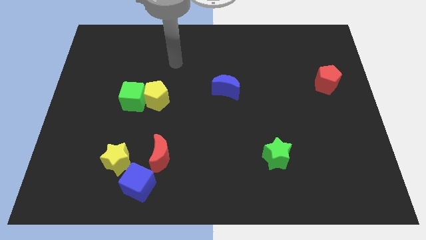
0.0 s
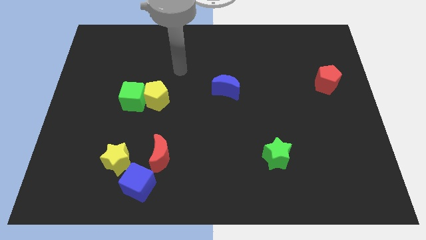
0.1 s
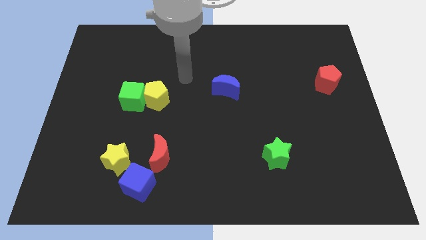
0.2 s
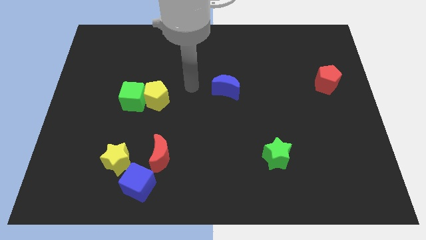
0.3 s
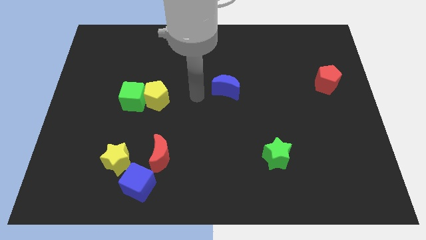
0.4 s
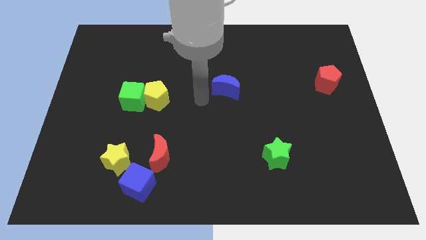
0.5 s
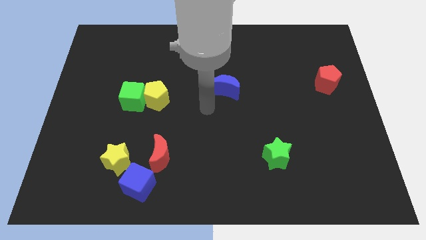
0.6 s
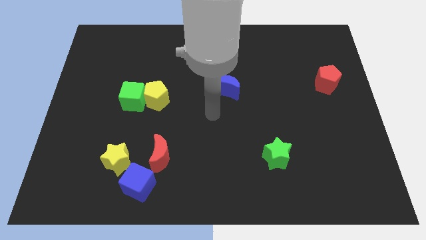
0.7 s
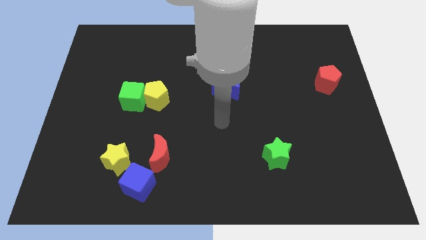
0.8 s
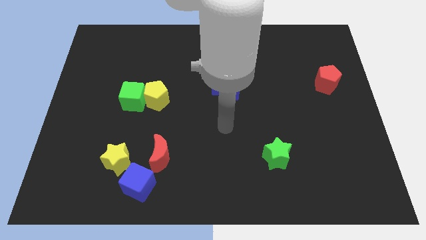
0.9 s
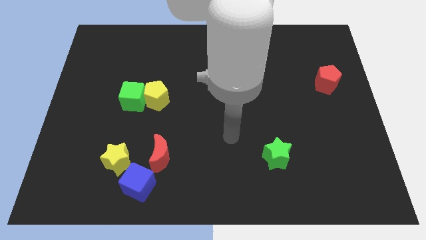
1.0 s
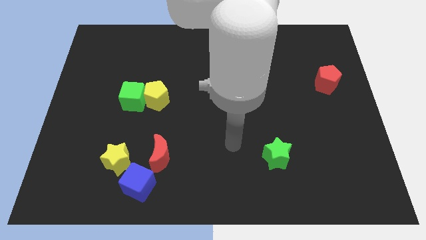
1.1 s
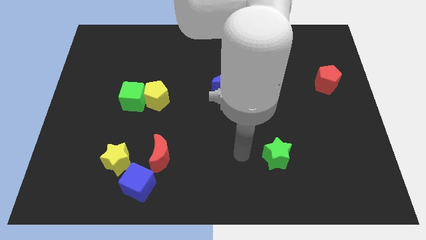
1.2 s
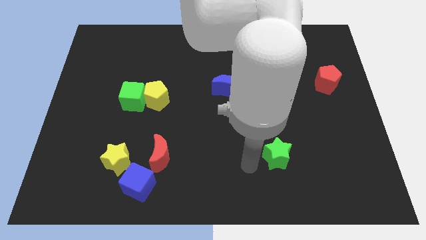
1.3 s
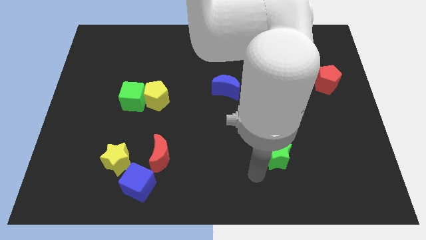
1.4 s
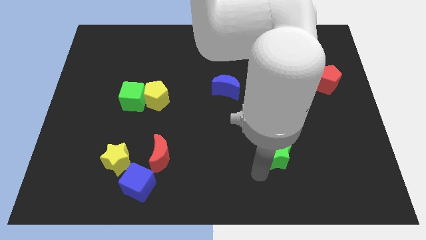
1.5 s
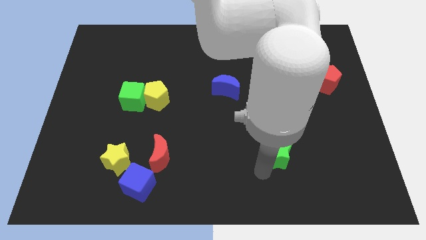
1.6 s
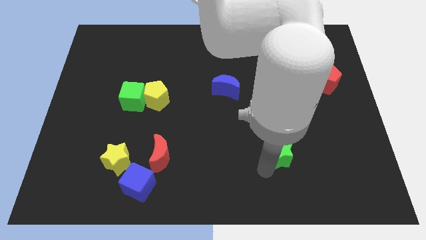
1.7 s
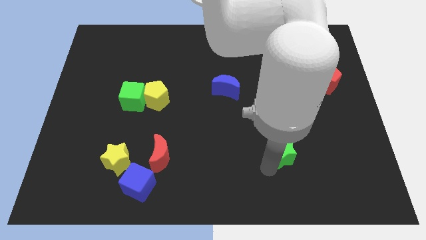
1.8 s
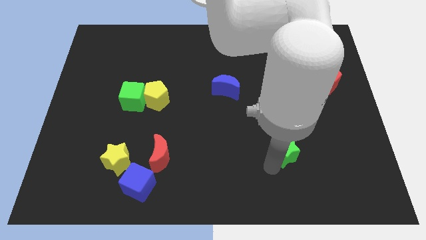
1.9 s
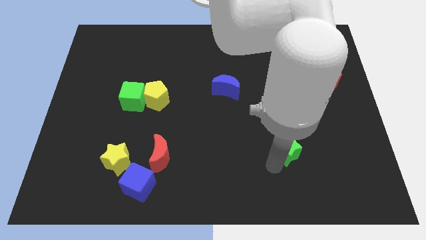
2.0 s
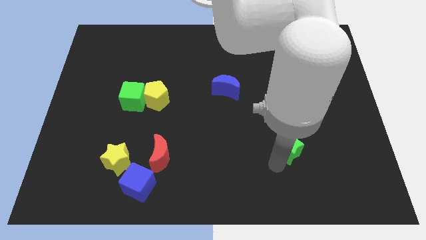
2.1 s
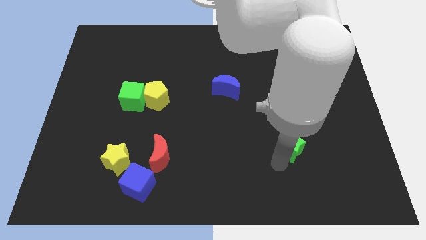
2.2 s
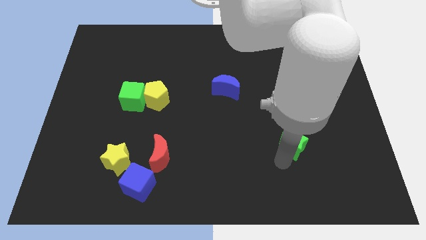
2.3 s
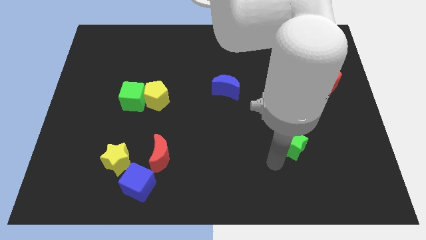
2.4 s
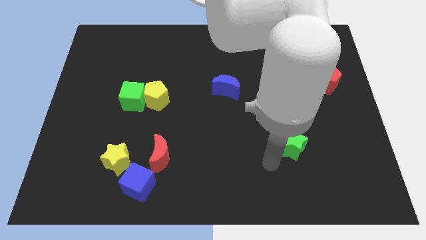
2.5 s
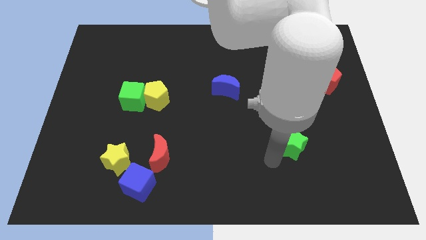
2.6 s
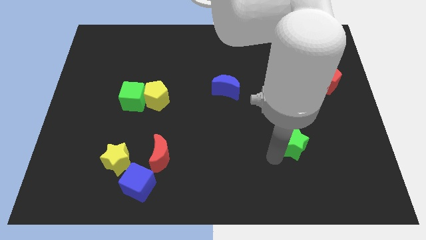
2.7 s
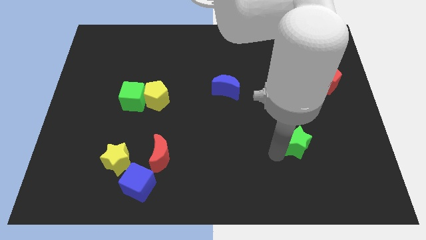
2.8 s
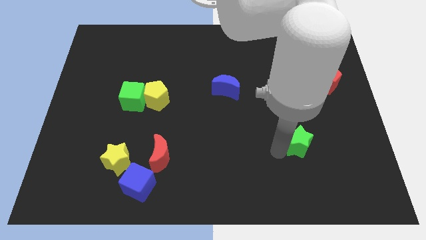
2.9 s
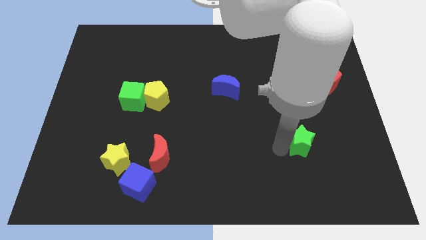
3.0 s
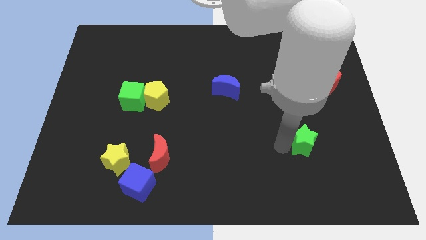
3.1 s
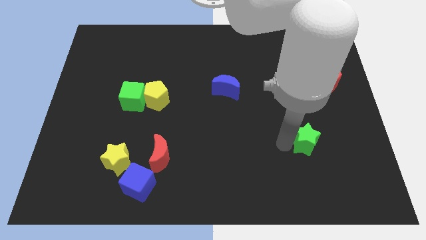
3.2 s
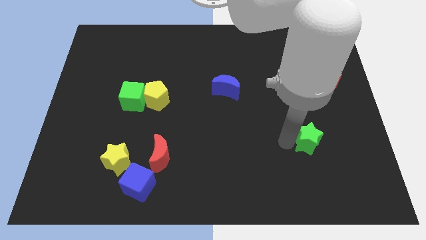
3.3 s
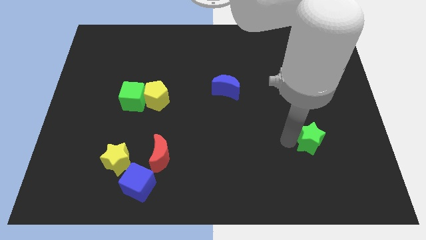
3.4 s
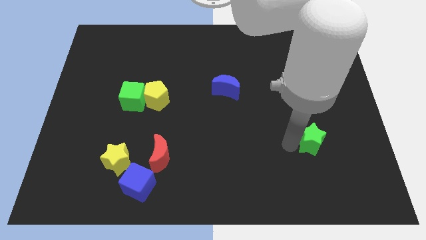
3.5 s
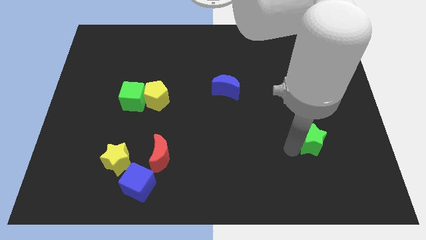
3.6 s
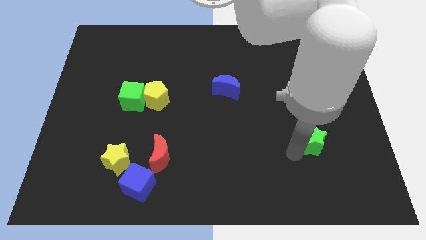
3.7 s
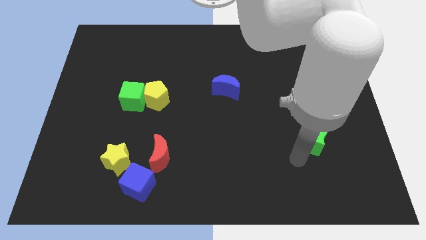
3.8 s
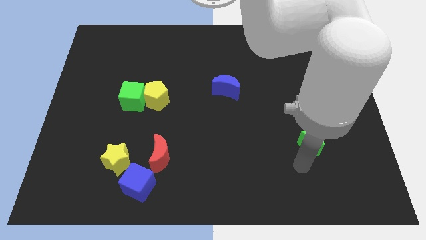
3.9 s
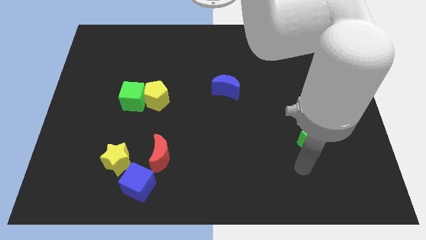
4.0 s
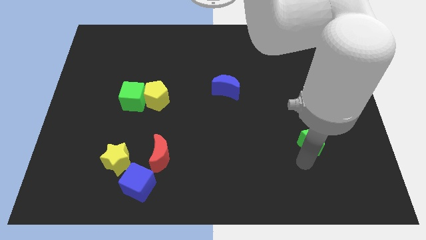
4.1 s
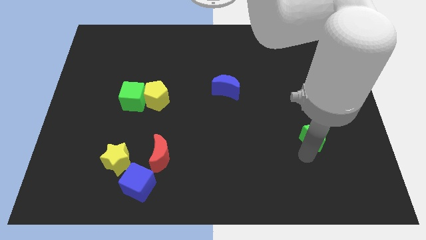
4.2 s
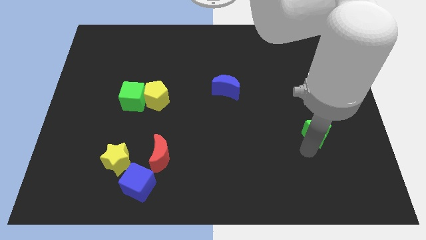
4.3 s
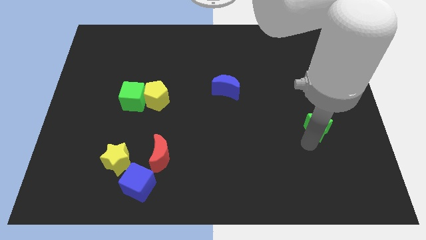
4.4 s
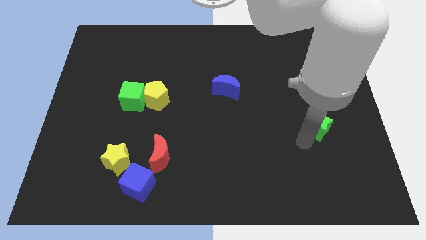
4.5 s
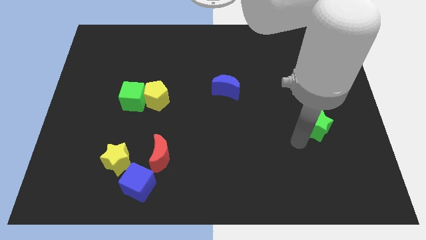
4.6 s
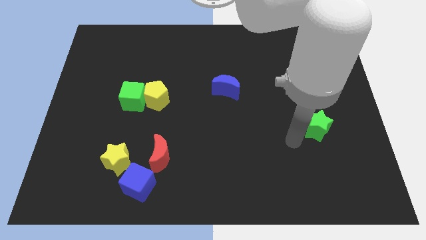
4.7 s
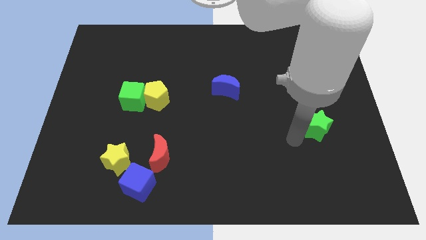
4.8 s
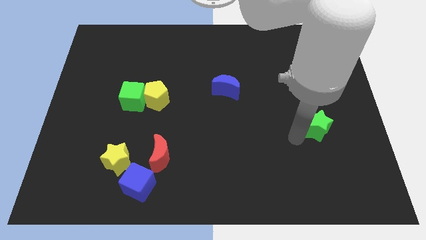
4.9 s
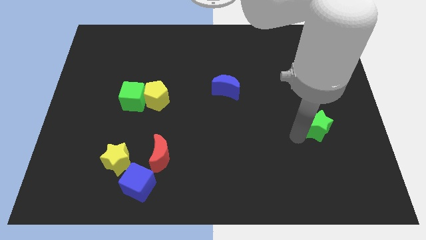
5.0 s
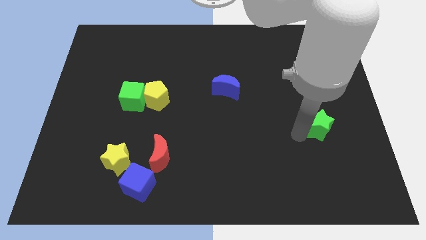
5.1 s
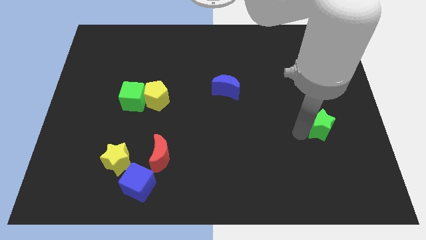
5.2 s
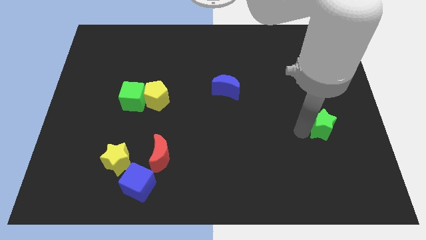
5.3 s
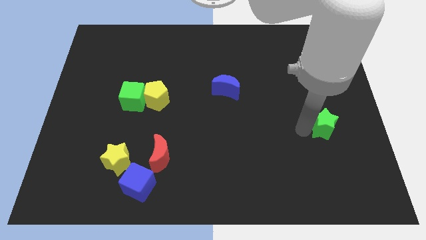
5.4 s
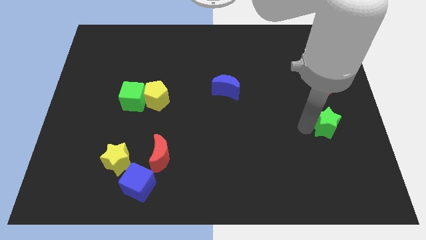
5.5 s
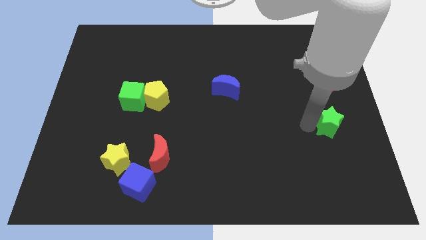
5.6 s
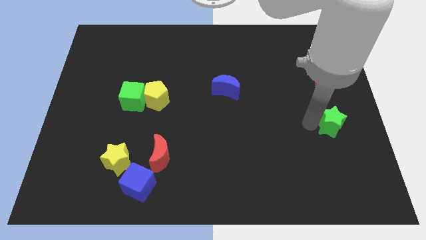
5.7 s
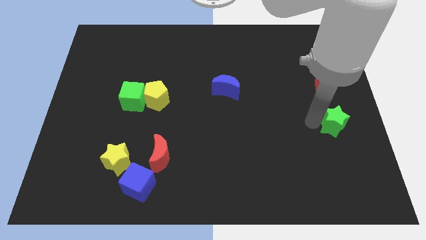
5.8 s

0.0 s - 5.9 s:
slide the green star to the center right

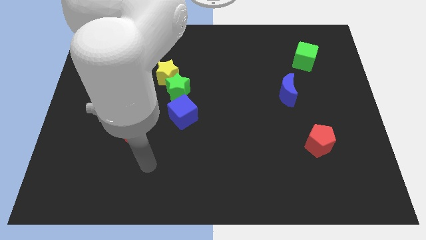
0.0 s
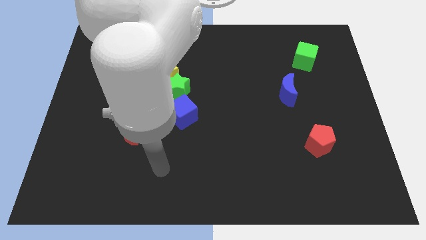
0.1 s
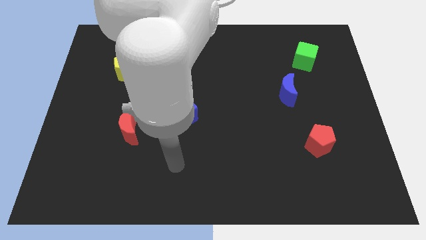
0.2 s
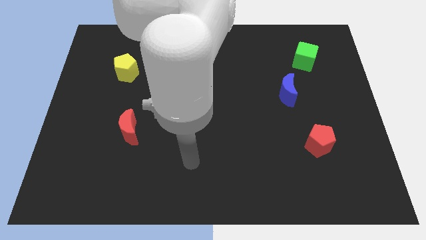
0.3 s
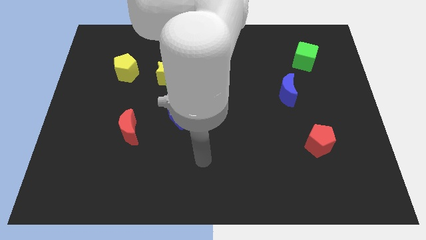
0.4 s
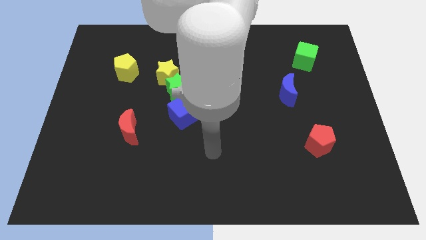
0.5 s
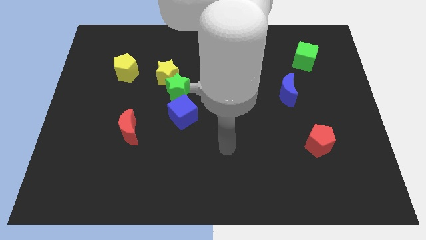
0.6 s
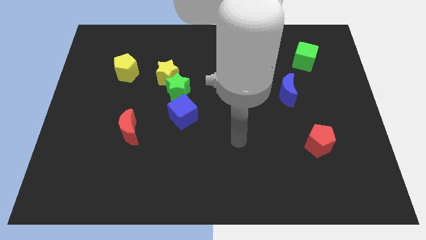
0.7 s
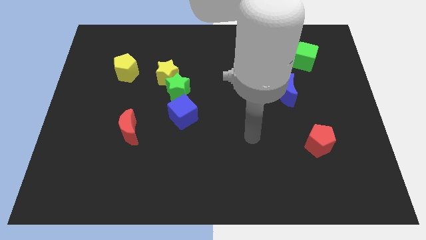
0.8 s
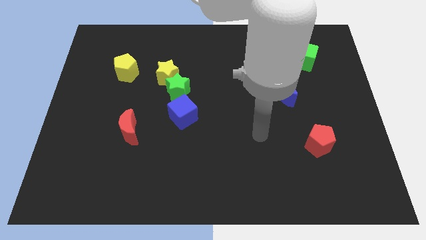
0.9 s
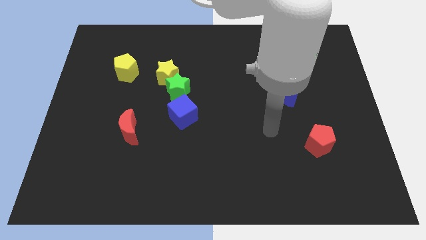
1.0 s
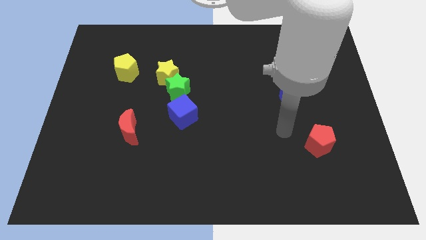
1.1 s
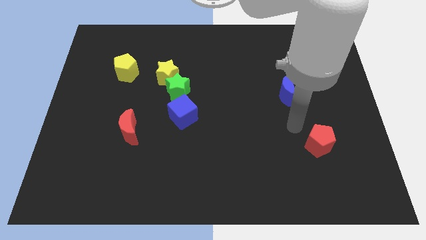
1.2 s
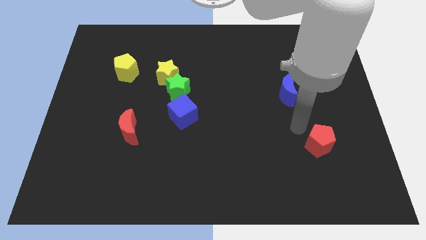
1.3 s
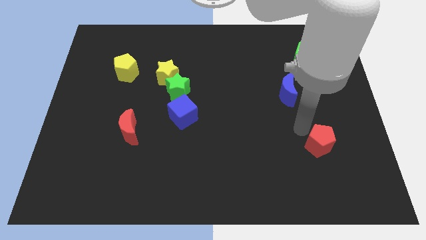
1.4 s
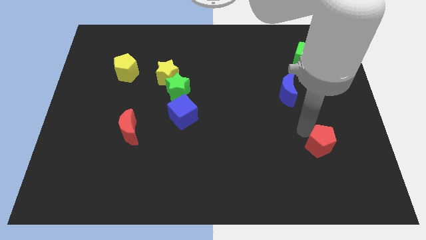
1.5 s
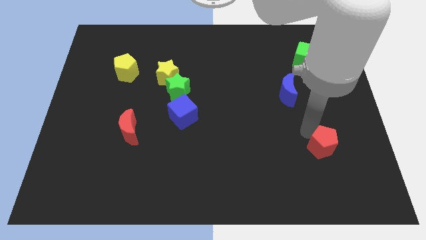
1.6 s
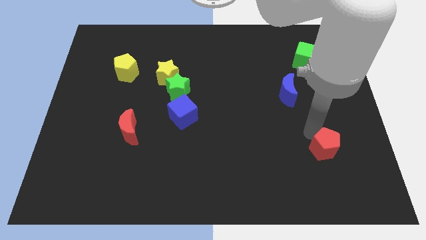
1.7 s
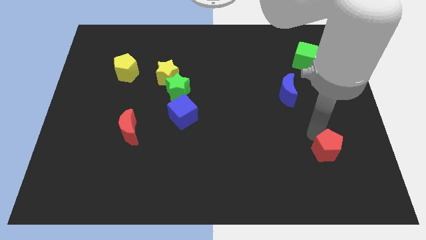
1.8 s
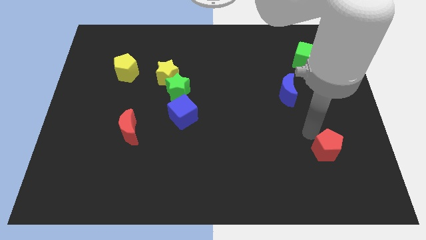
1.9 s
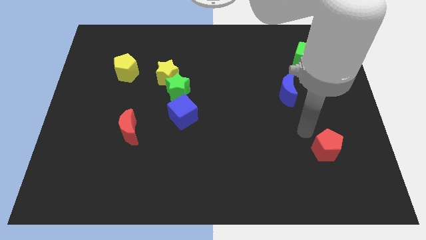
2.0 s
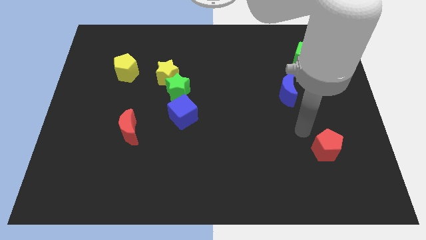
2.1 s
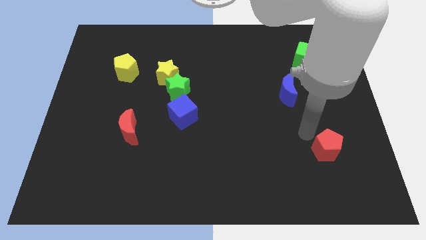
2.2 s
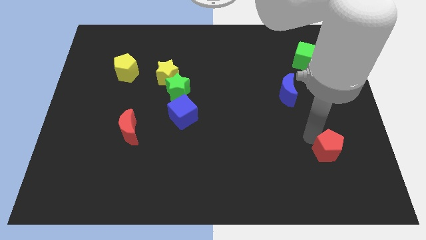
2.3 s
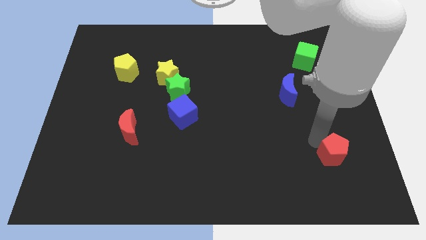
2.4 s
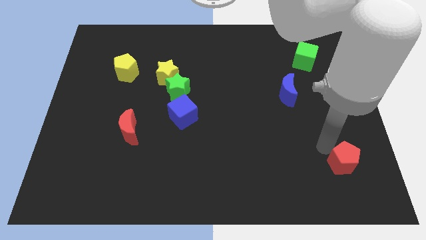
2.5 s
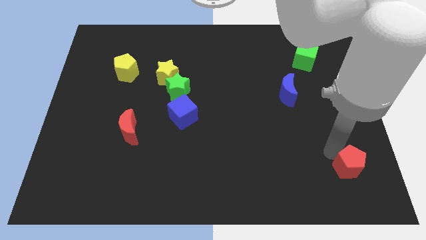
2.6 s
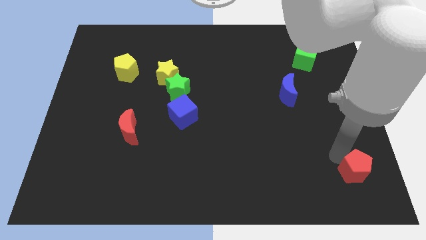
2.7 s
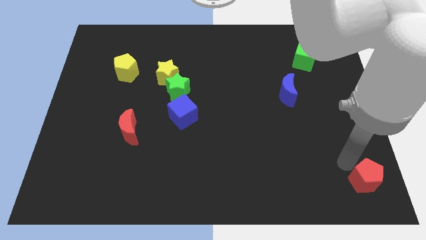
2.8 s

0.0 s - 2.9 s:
put the red pentagon to the bottom right of the board
